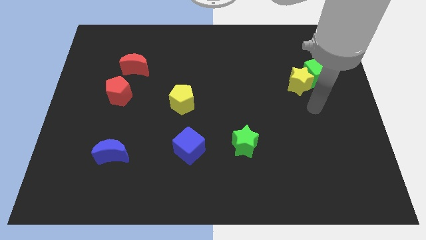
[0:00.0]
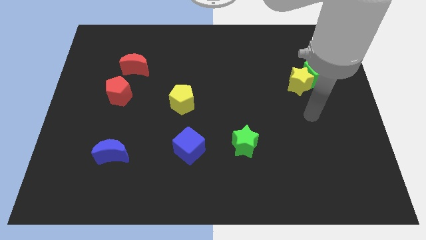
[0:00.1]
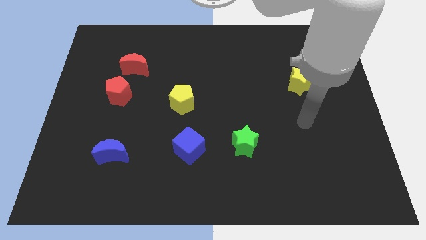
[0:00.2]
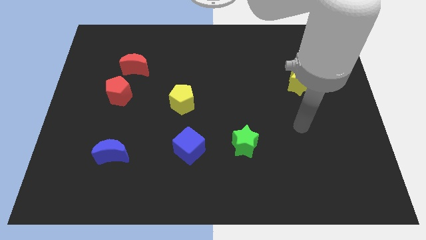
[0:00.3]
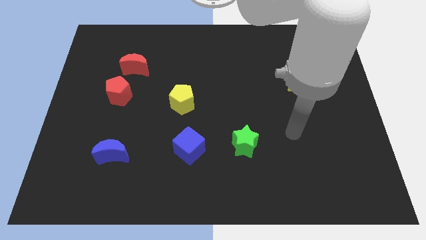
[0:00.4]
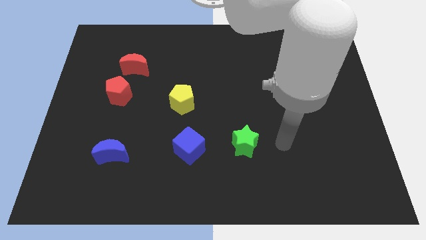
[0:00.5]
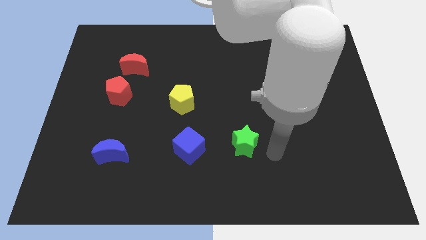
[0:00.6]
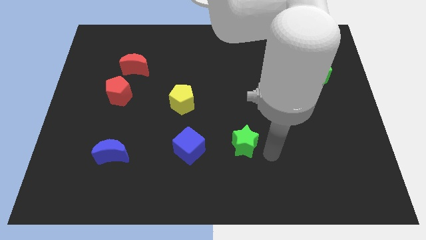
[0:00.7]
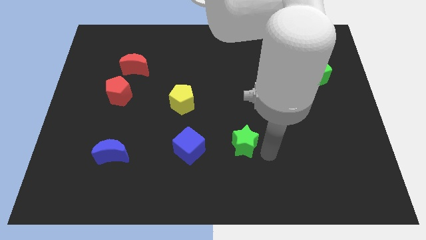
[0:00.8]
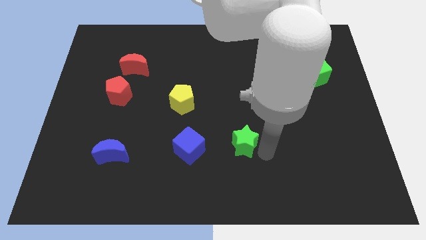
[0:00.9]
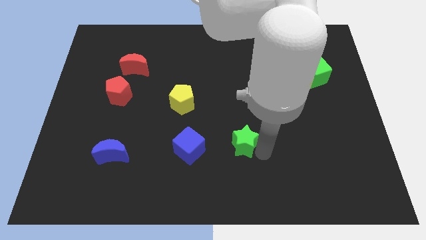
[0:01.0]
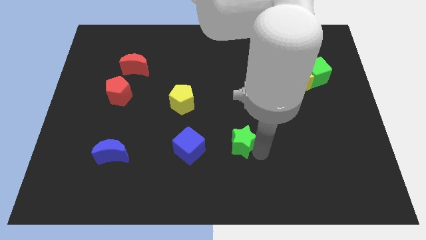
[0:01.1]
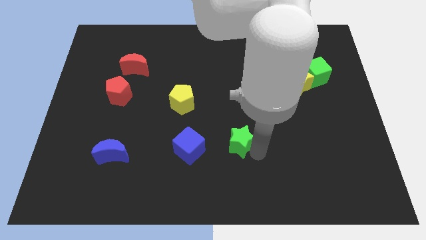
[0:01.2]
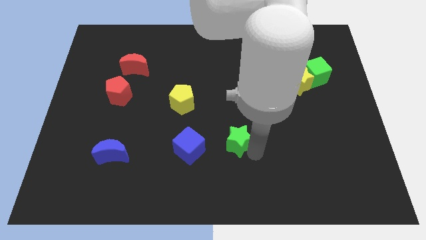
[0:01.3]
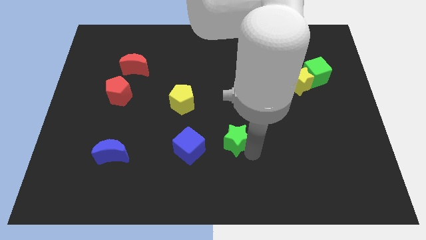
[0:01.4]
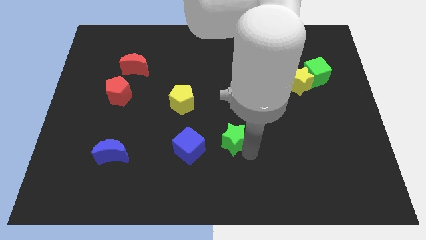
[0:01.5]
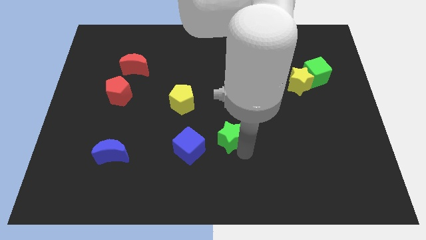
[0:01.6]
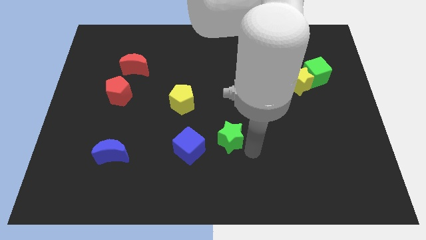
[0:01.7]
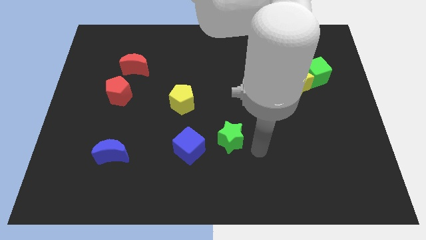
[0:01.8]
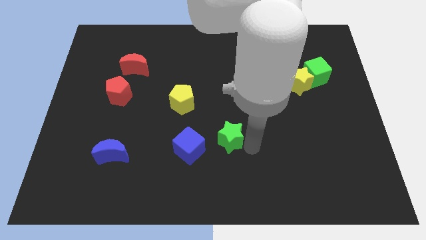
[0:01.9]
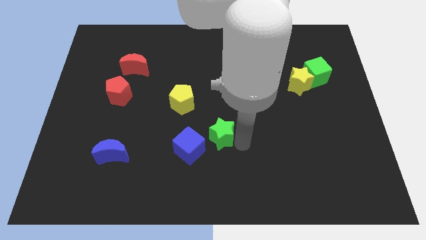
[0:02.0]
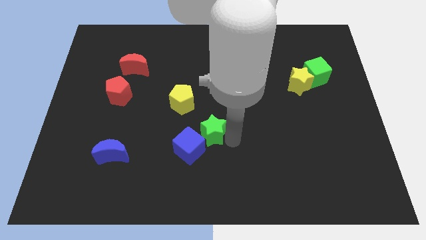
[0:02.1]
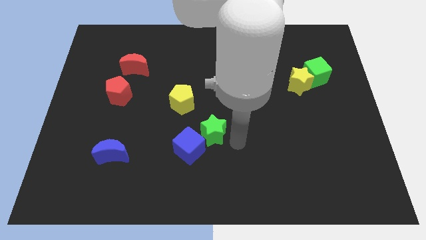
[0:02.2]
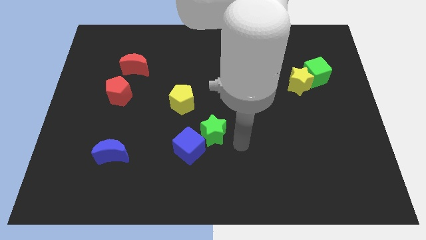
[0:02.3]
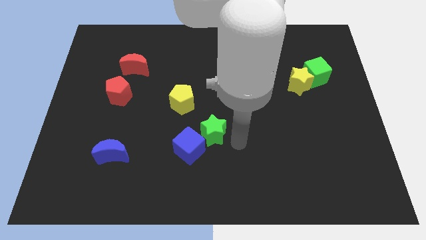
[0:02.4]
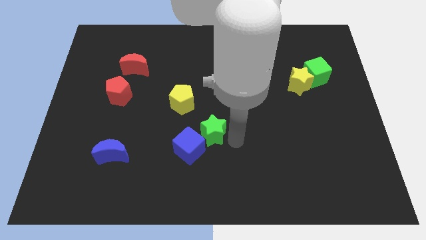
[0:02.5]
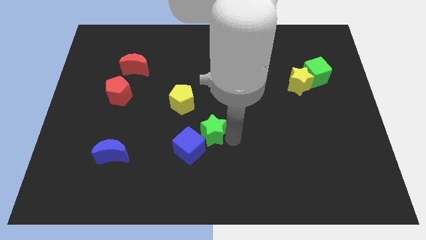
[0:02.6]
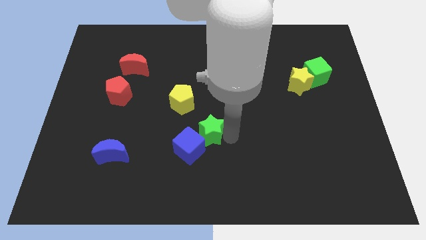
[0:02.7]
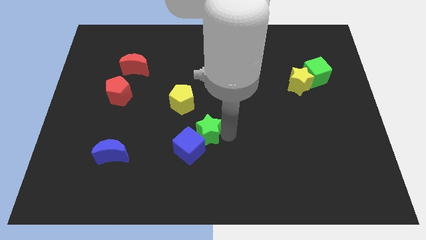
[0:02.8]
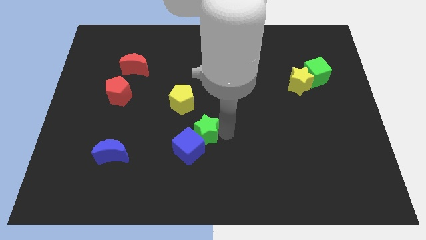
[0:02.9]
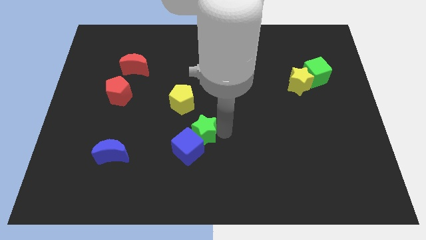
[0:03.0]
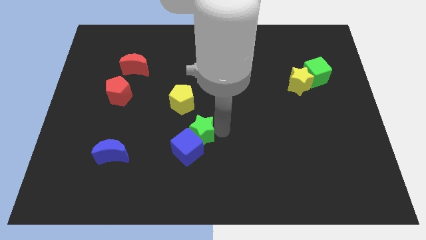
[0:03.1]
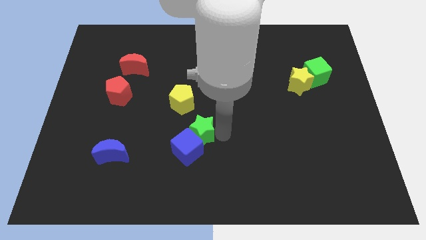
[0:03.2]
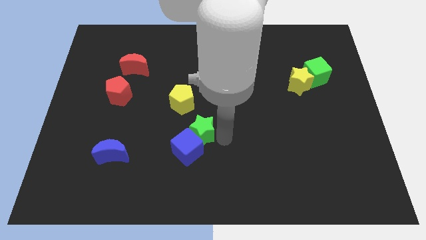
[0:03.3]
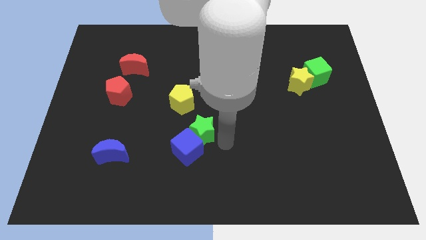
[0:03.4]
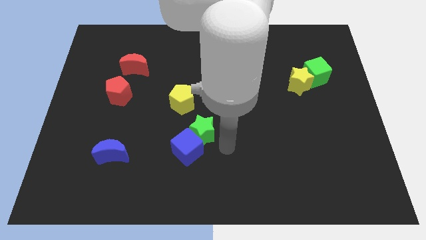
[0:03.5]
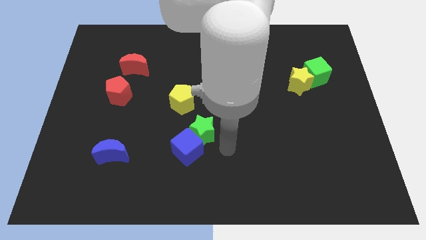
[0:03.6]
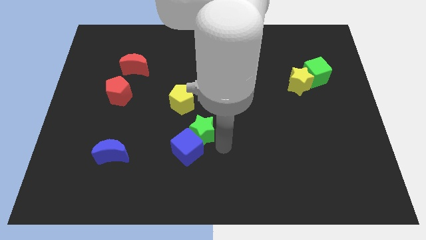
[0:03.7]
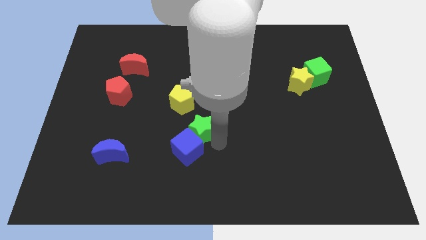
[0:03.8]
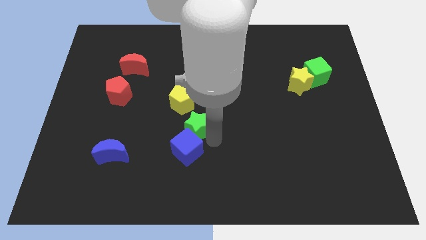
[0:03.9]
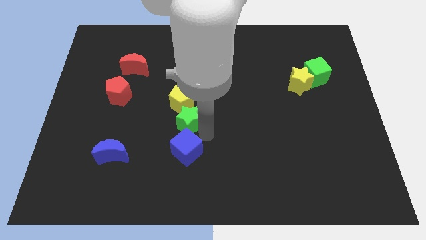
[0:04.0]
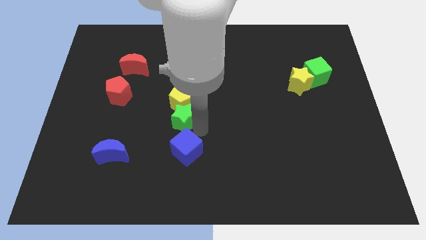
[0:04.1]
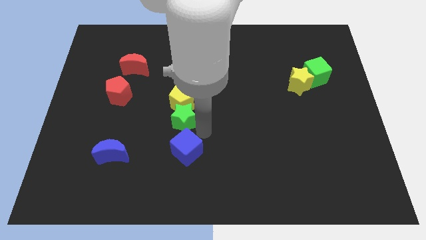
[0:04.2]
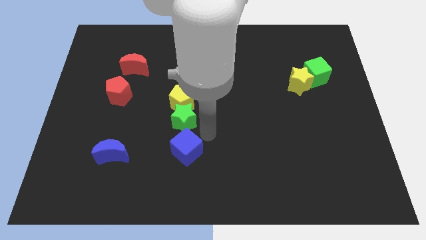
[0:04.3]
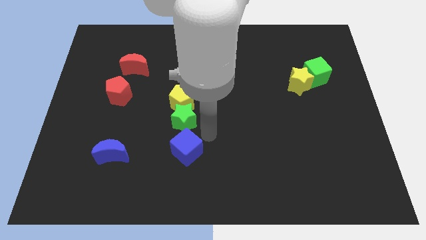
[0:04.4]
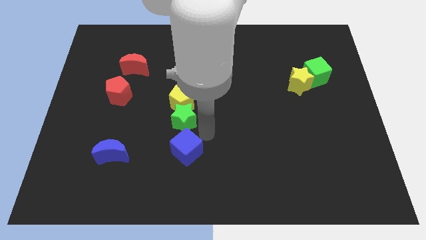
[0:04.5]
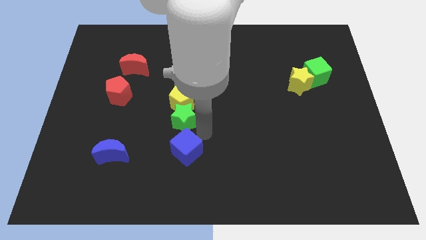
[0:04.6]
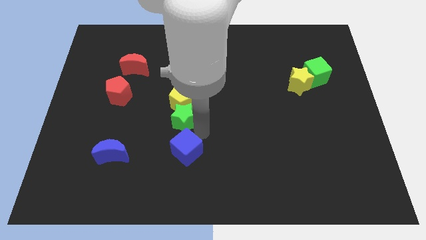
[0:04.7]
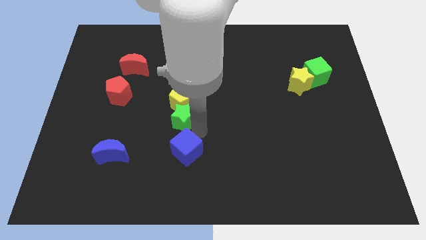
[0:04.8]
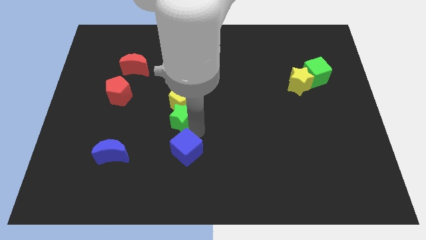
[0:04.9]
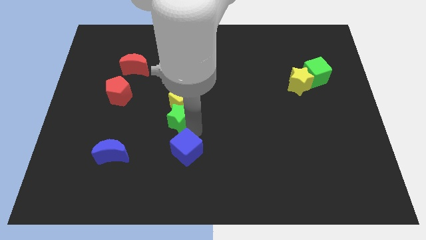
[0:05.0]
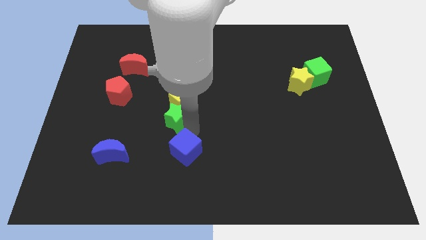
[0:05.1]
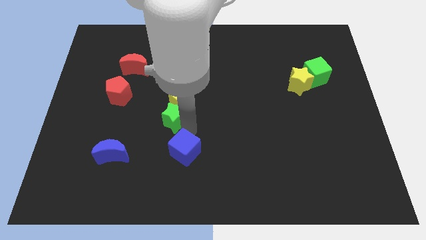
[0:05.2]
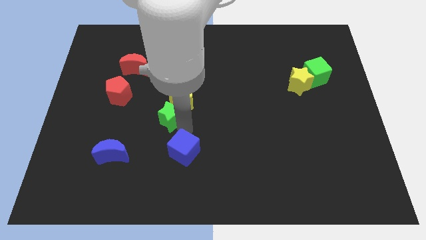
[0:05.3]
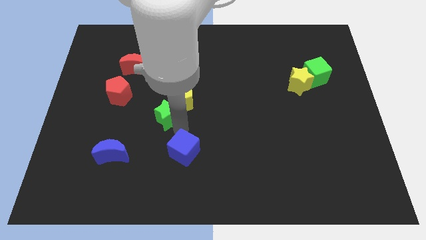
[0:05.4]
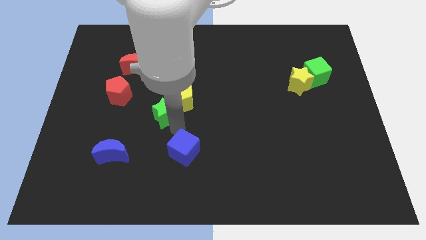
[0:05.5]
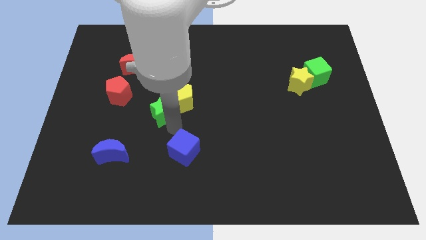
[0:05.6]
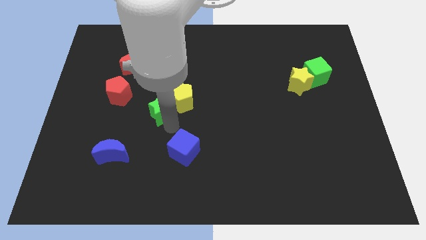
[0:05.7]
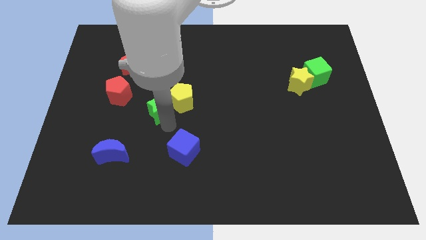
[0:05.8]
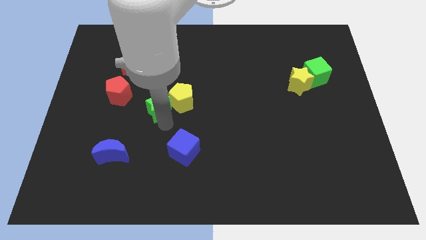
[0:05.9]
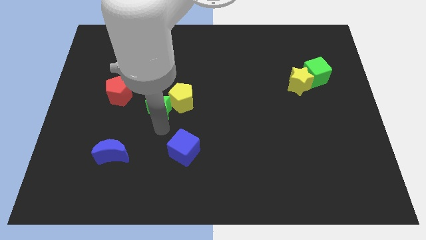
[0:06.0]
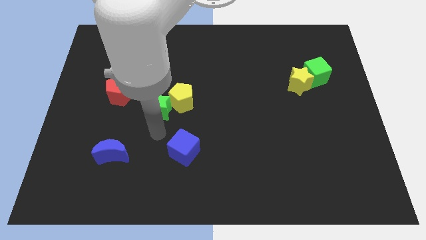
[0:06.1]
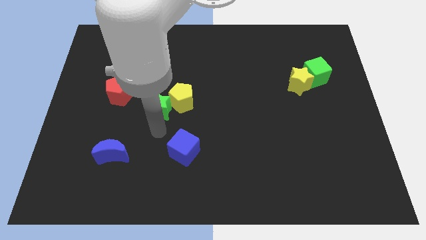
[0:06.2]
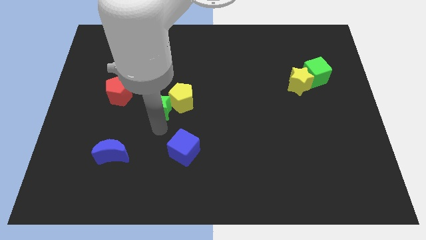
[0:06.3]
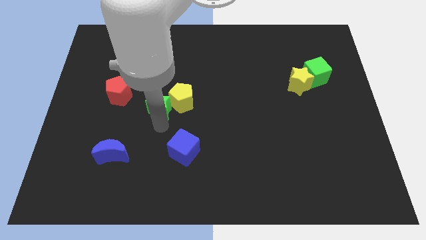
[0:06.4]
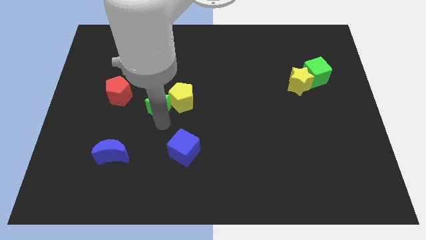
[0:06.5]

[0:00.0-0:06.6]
move the green star just right of the red pentagon

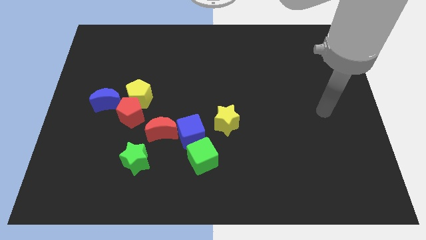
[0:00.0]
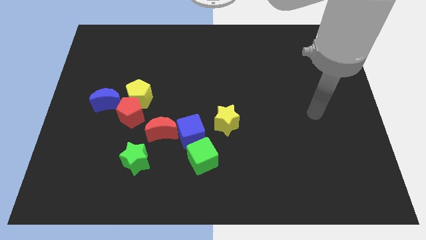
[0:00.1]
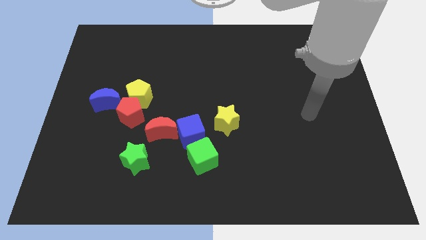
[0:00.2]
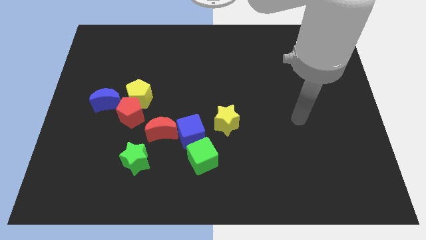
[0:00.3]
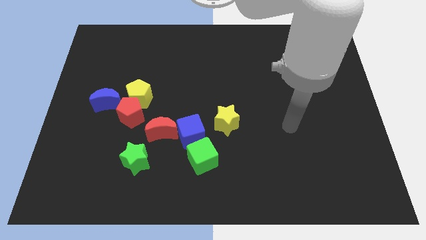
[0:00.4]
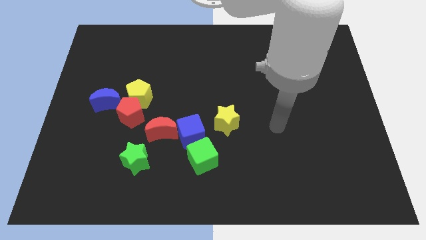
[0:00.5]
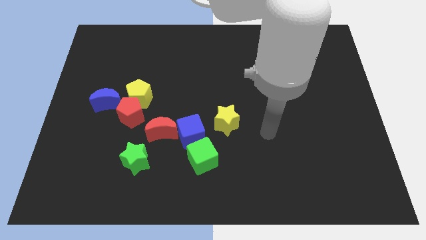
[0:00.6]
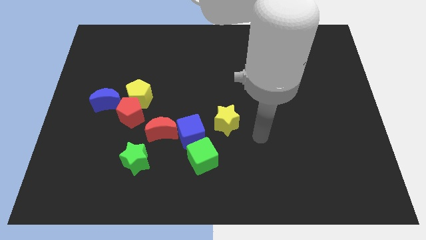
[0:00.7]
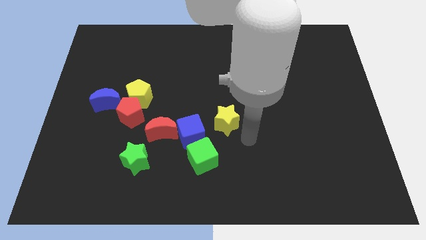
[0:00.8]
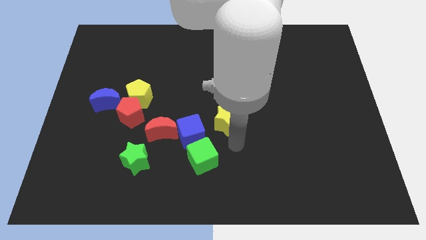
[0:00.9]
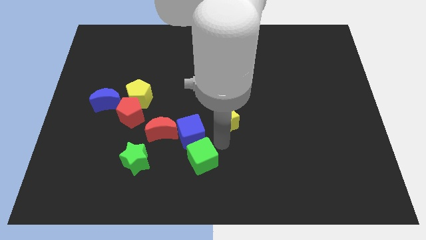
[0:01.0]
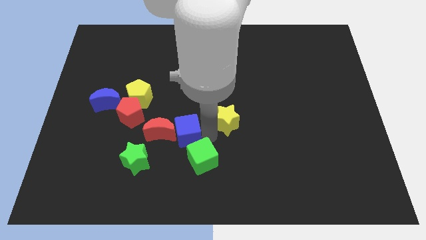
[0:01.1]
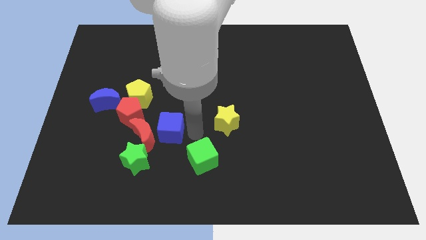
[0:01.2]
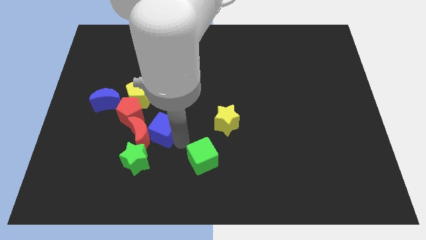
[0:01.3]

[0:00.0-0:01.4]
slide the red moon to the bottom right side of the blue moon
